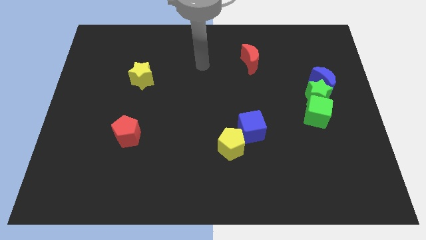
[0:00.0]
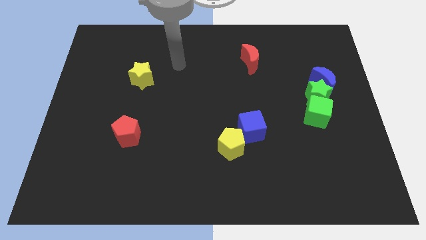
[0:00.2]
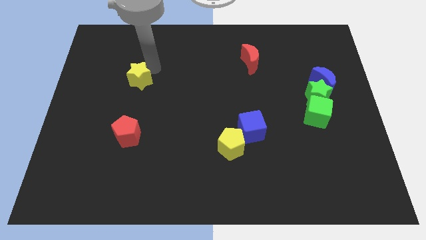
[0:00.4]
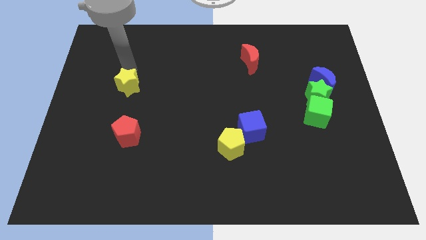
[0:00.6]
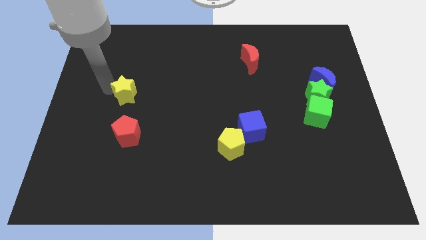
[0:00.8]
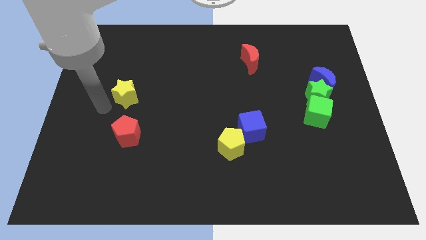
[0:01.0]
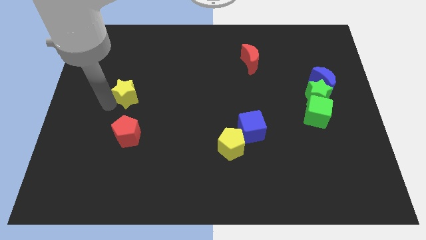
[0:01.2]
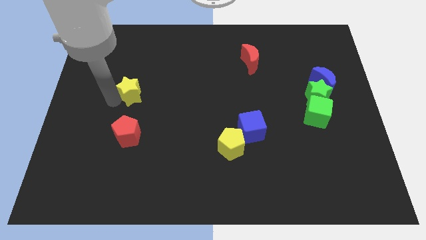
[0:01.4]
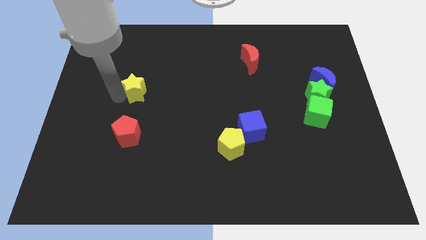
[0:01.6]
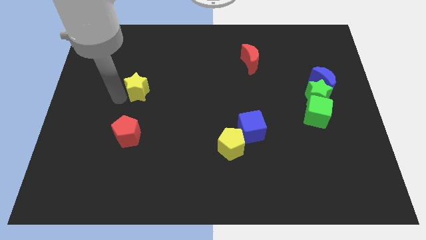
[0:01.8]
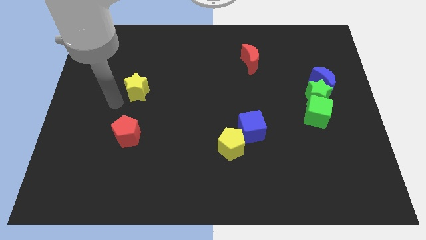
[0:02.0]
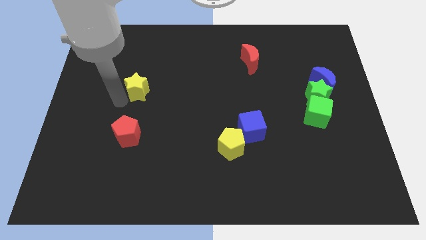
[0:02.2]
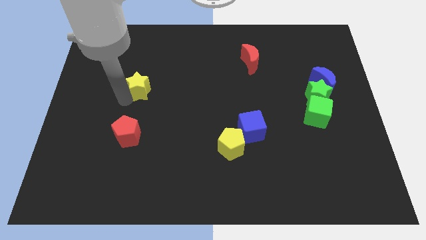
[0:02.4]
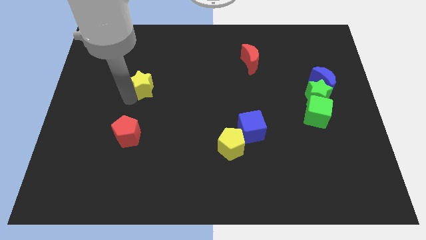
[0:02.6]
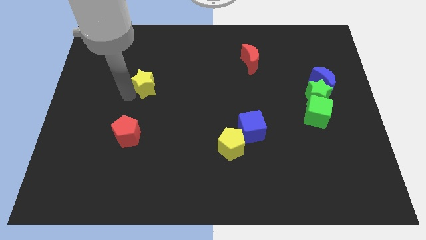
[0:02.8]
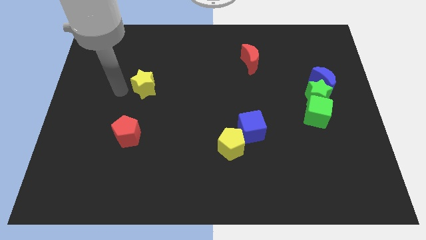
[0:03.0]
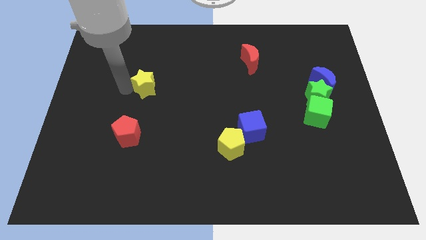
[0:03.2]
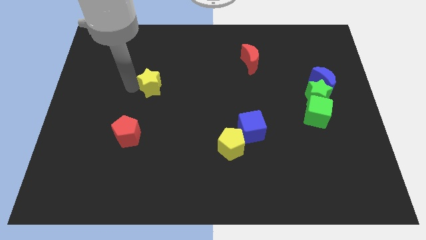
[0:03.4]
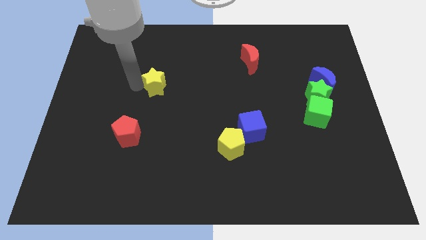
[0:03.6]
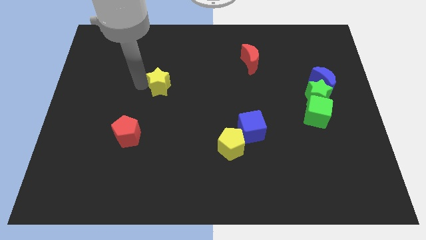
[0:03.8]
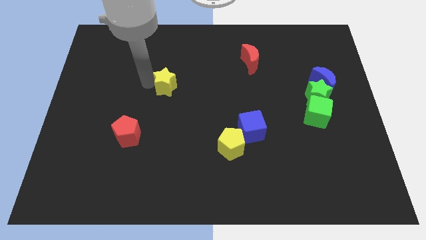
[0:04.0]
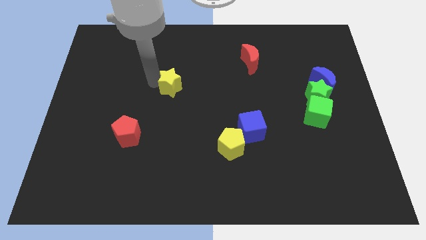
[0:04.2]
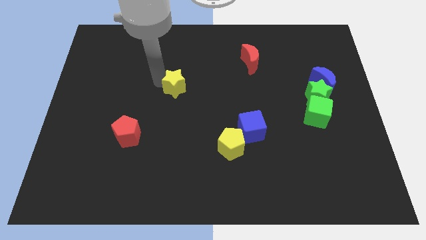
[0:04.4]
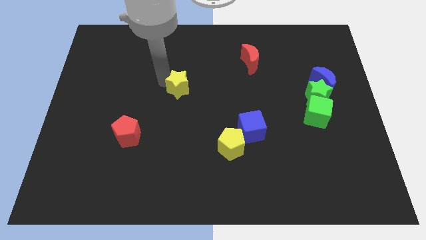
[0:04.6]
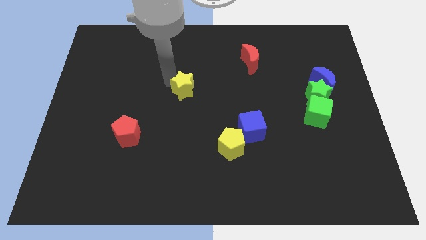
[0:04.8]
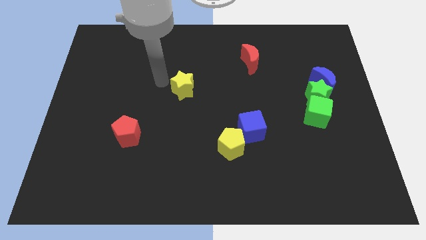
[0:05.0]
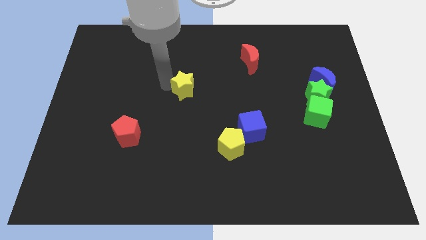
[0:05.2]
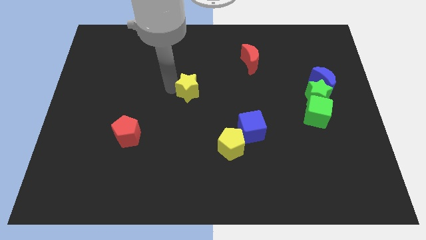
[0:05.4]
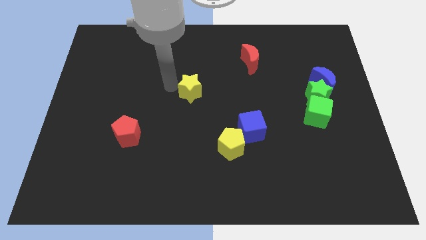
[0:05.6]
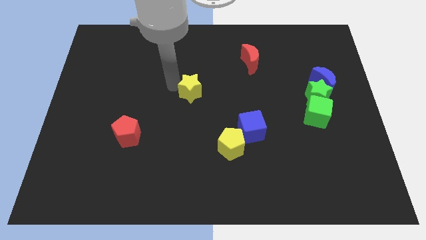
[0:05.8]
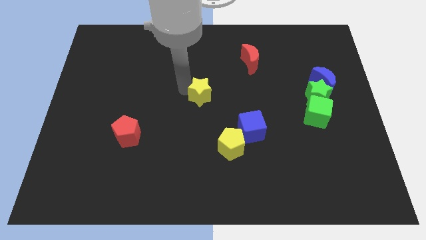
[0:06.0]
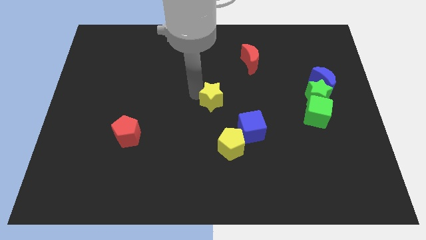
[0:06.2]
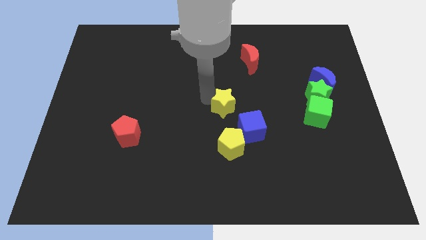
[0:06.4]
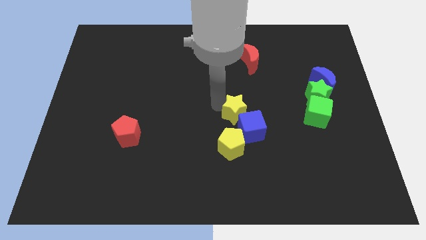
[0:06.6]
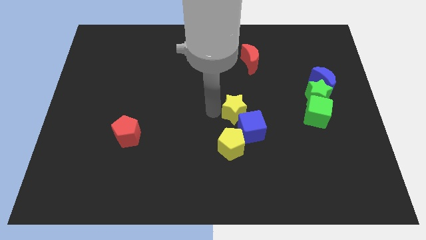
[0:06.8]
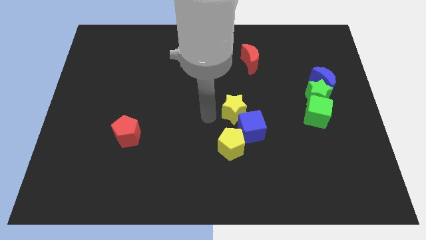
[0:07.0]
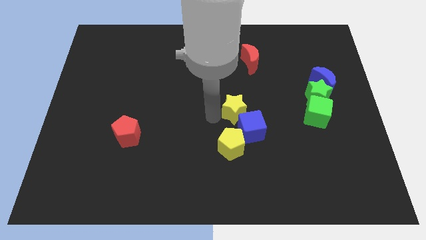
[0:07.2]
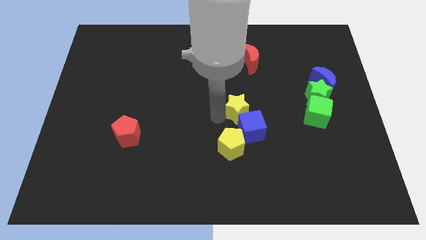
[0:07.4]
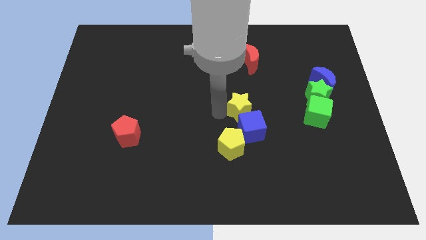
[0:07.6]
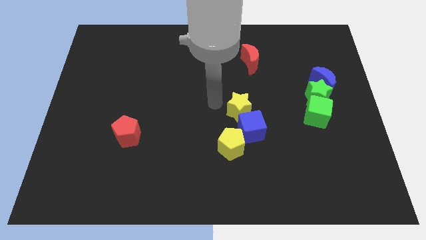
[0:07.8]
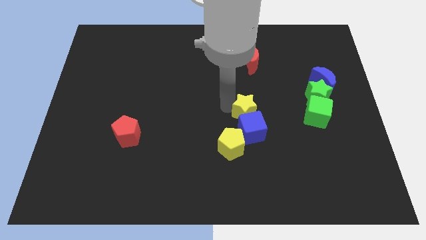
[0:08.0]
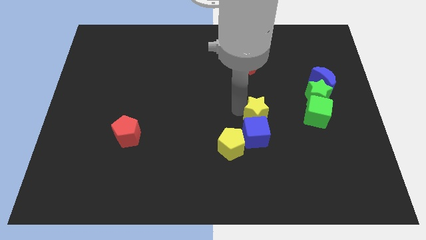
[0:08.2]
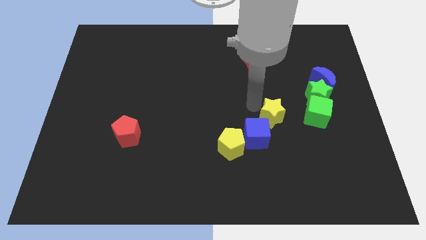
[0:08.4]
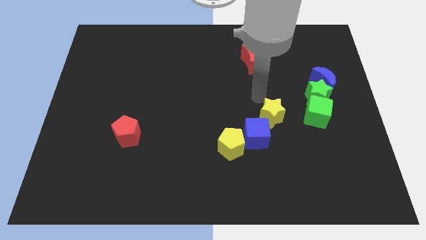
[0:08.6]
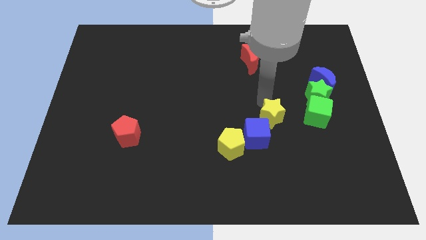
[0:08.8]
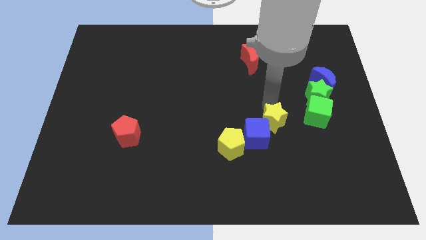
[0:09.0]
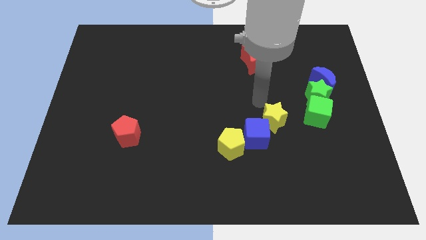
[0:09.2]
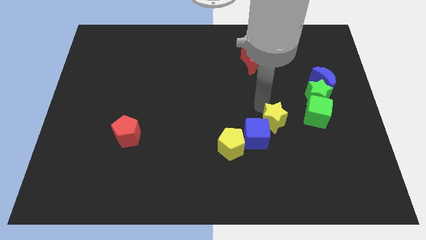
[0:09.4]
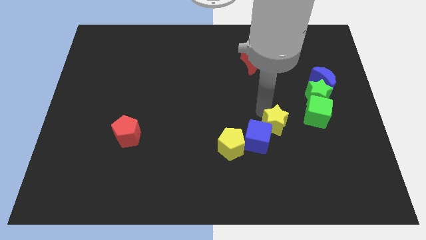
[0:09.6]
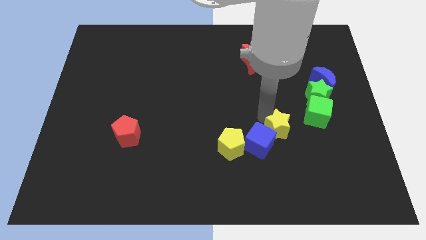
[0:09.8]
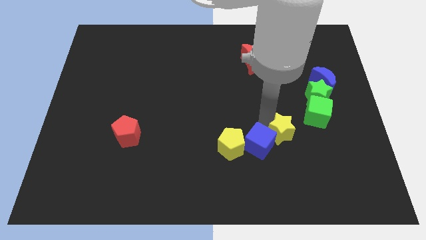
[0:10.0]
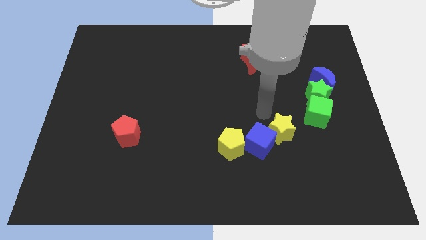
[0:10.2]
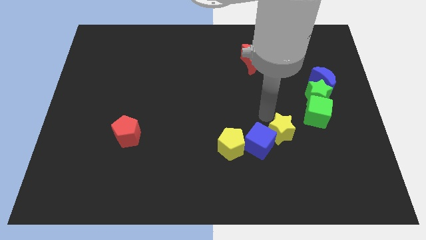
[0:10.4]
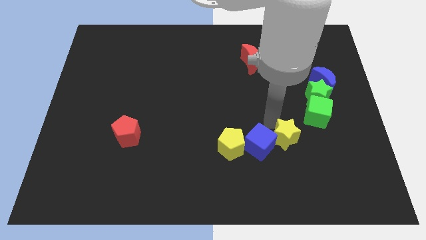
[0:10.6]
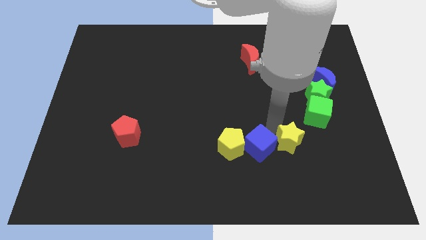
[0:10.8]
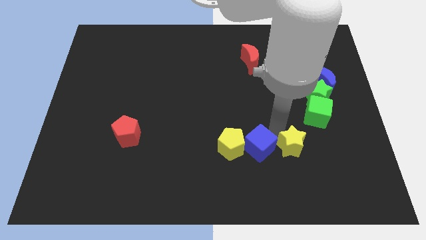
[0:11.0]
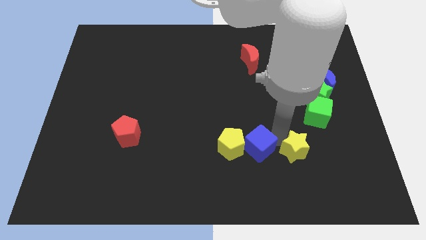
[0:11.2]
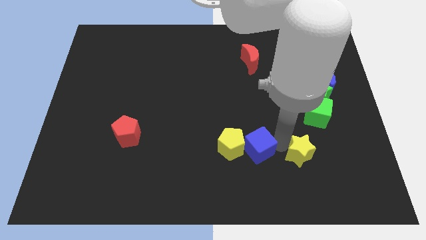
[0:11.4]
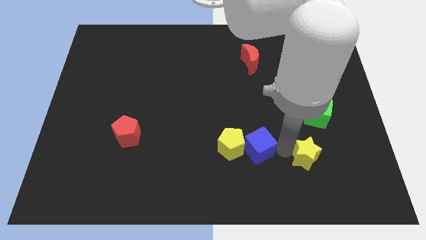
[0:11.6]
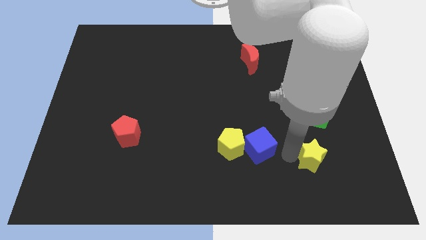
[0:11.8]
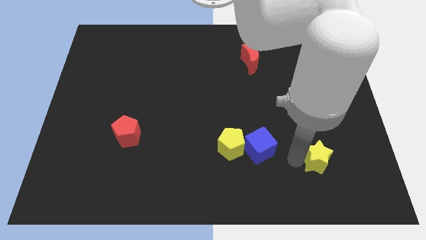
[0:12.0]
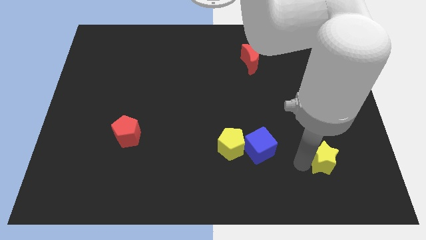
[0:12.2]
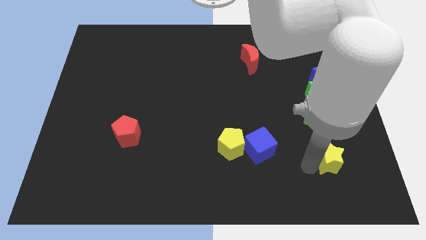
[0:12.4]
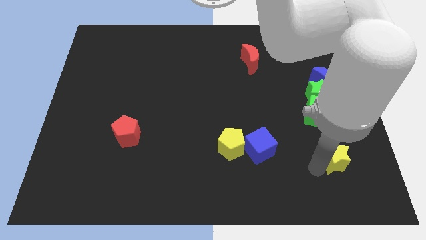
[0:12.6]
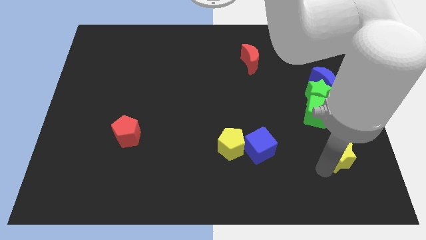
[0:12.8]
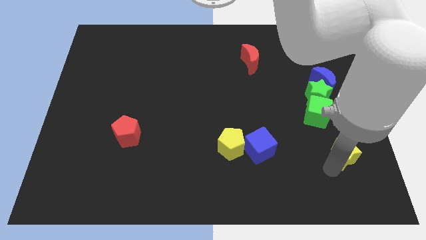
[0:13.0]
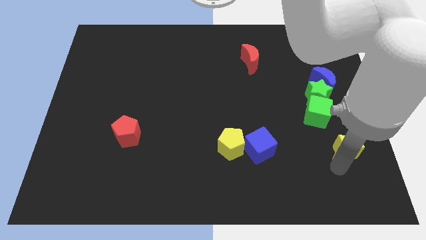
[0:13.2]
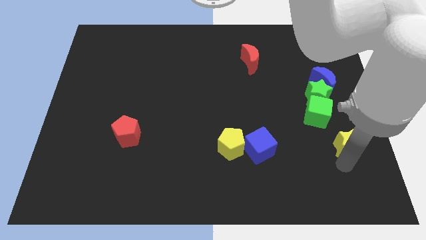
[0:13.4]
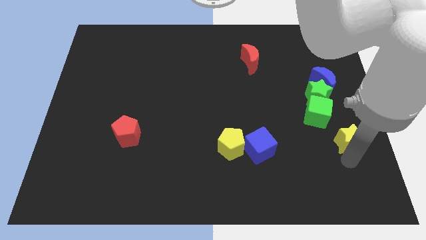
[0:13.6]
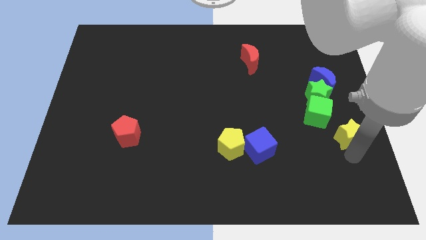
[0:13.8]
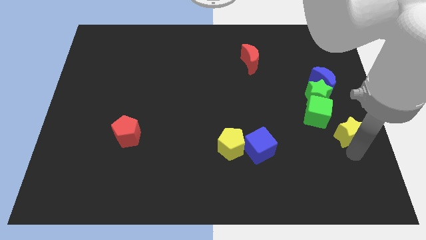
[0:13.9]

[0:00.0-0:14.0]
slide the yellow star to the bottom of the blue moon
